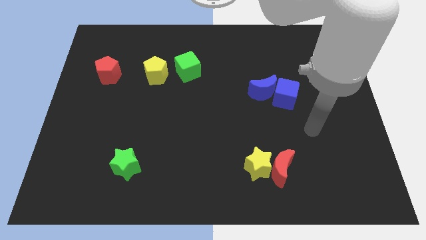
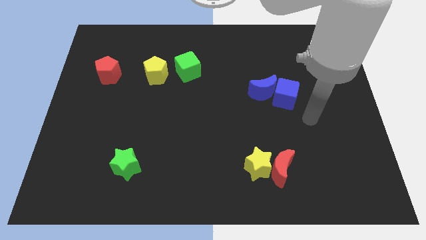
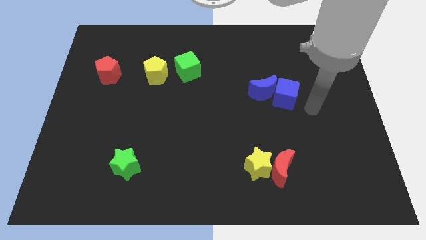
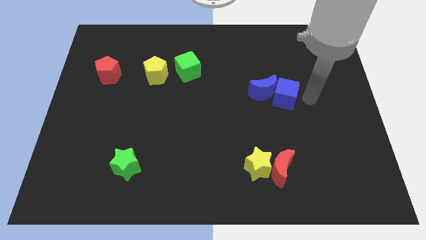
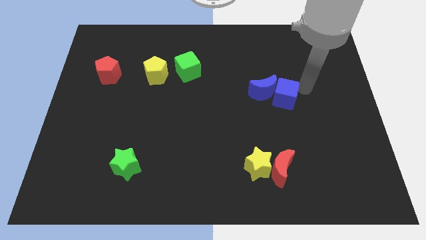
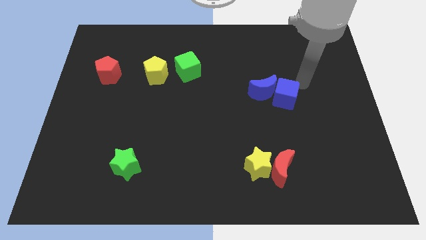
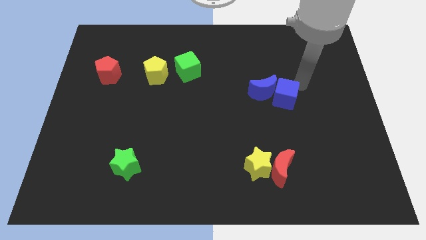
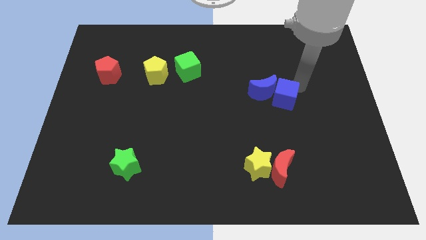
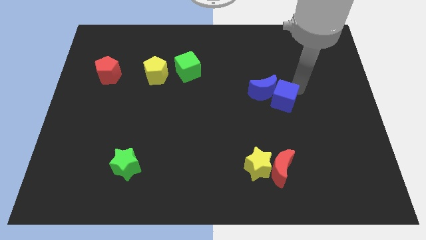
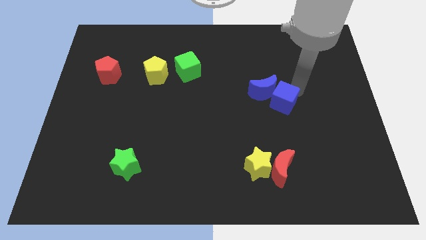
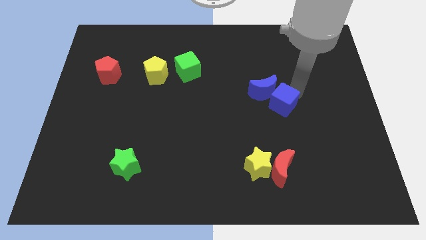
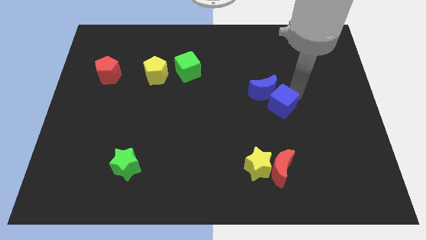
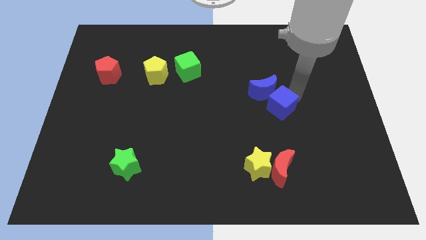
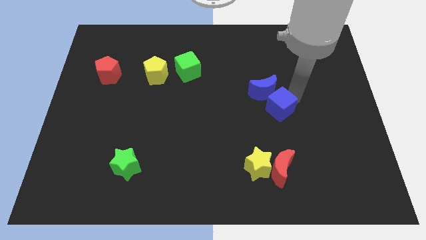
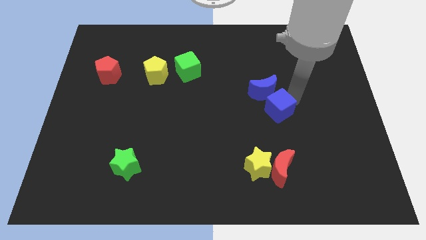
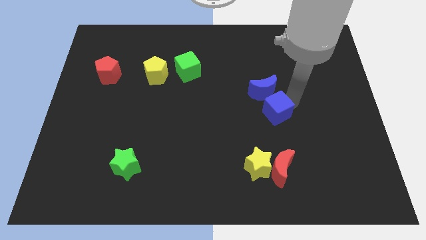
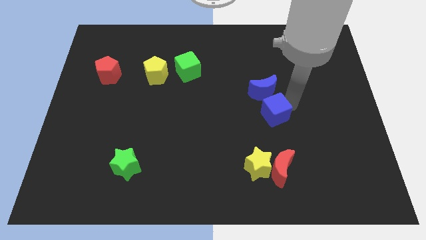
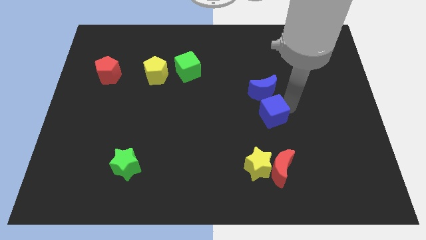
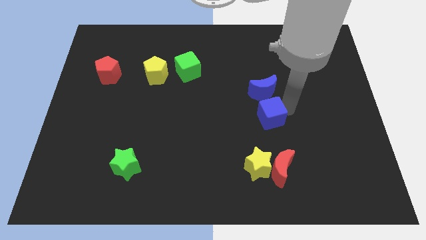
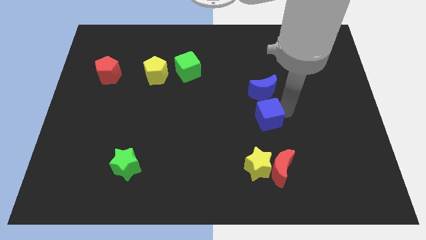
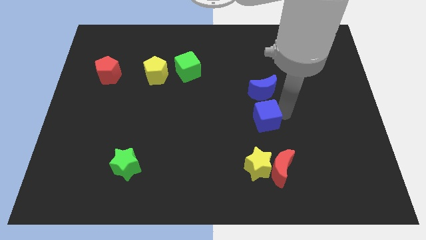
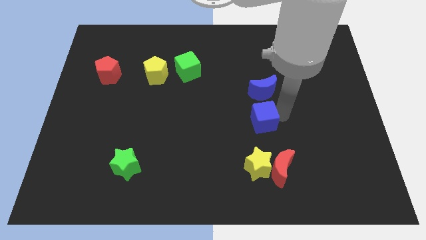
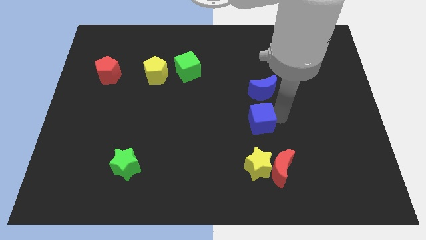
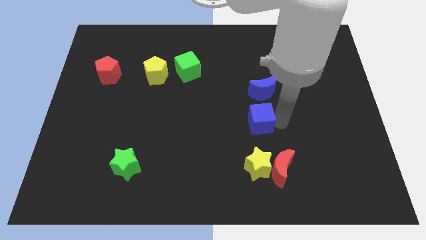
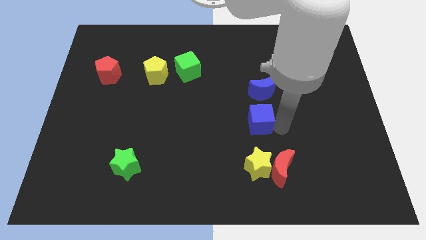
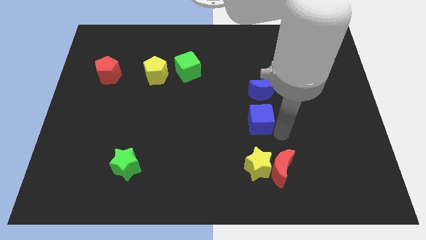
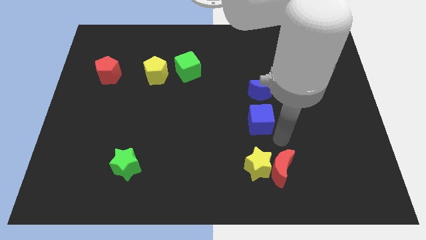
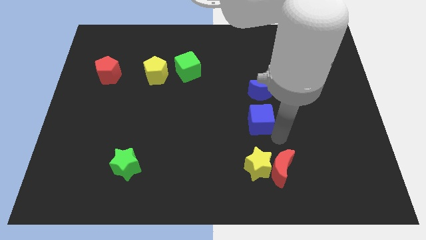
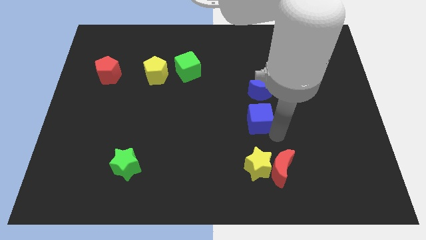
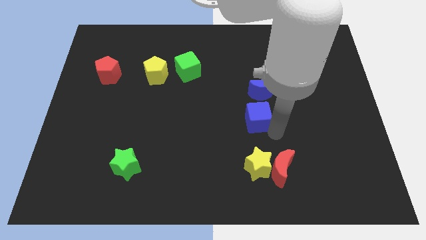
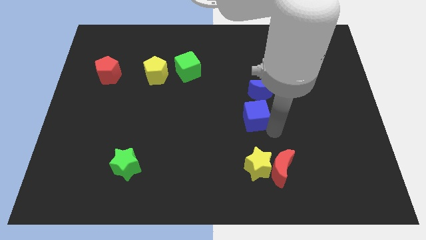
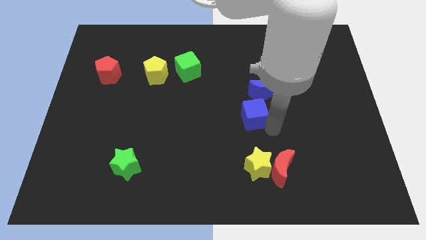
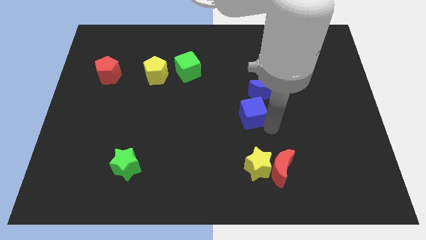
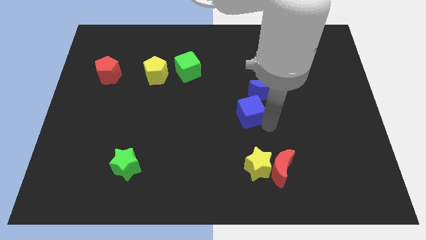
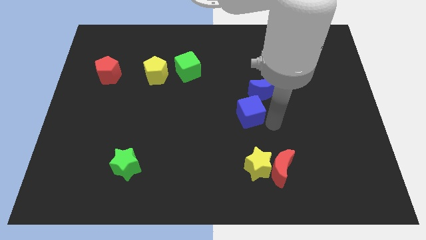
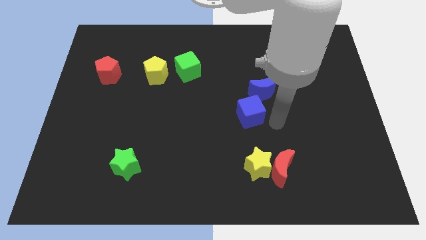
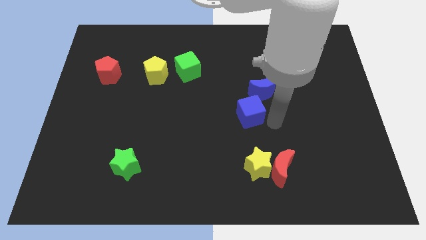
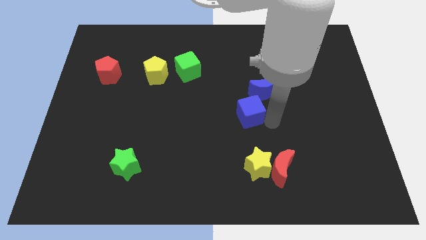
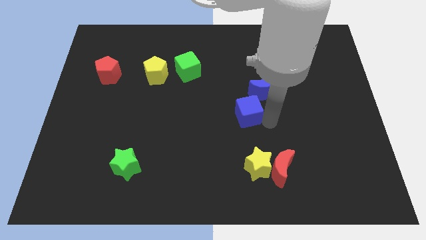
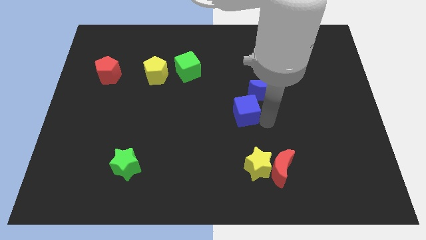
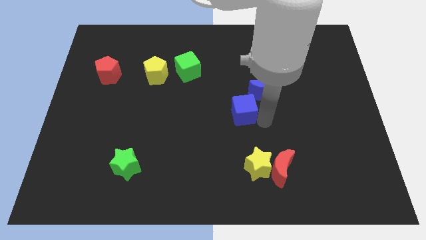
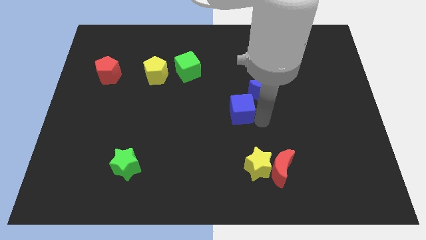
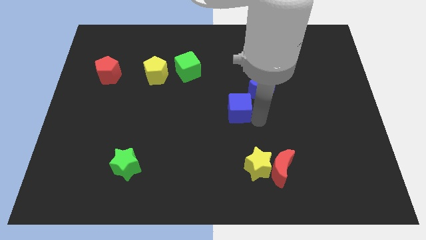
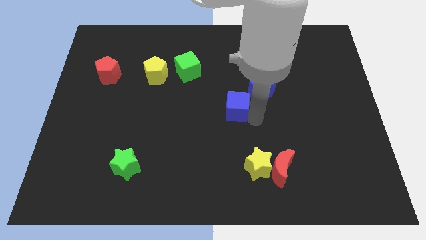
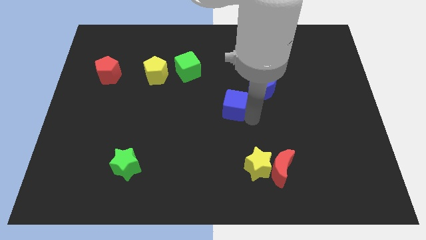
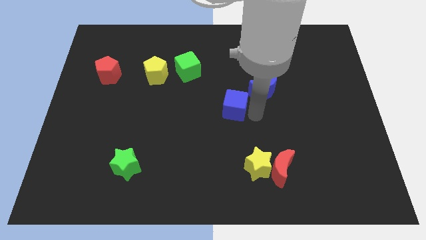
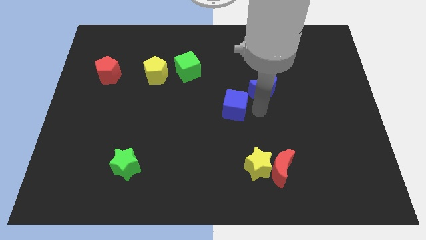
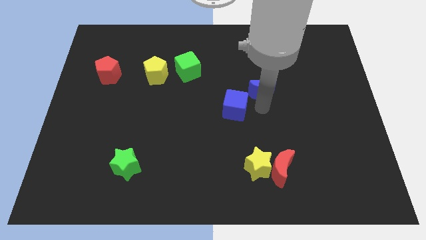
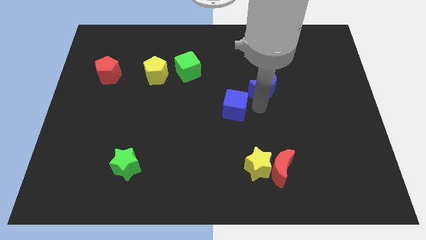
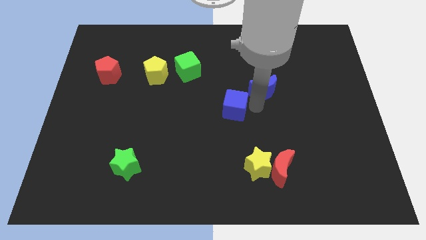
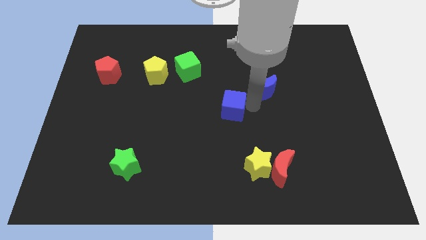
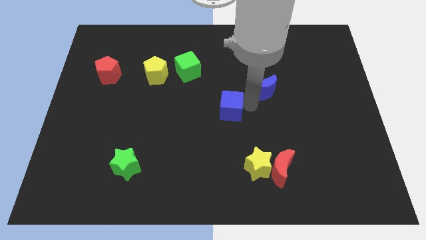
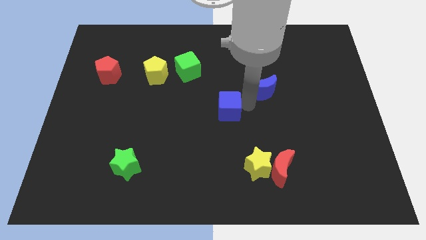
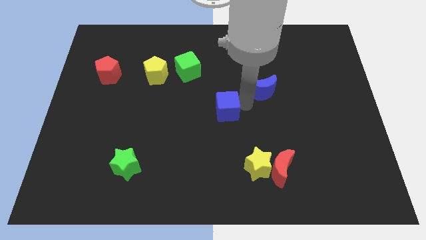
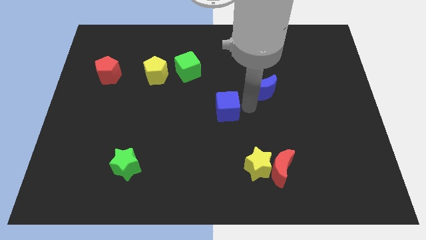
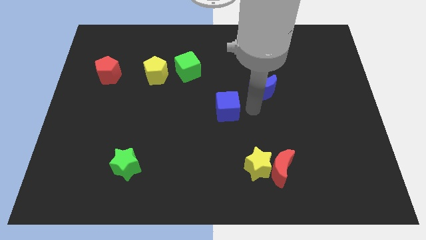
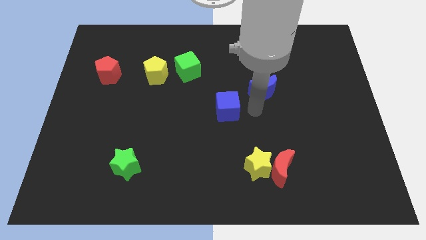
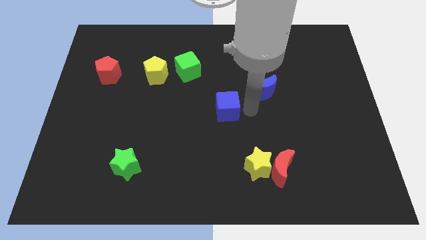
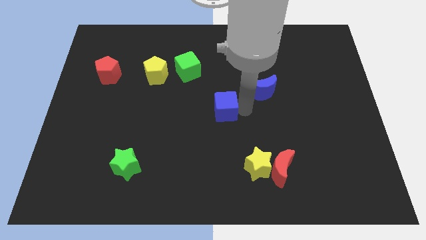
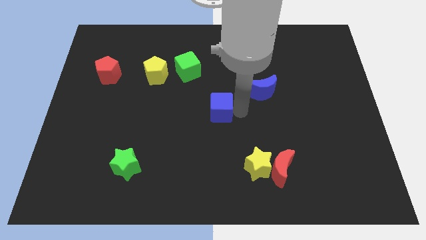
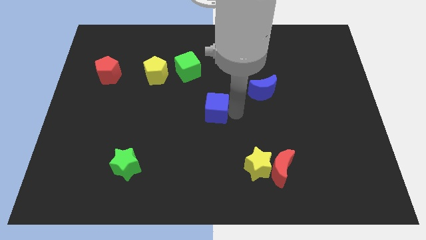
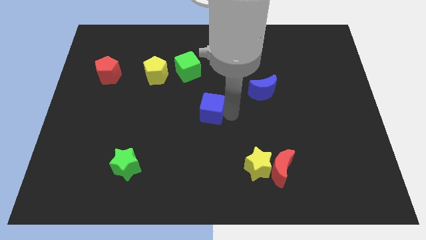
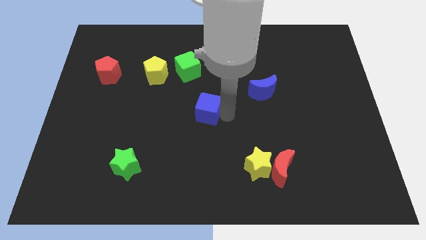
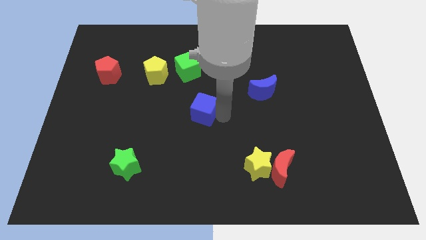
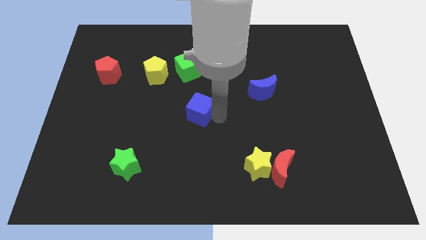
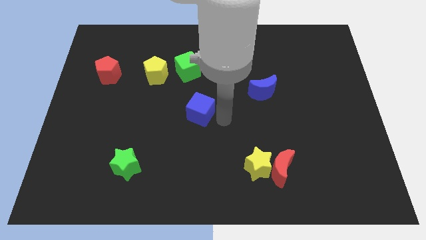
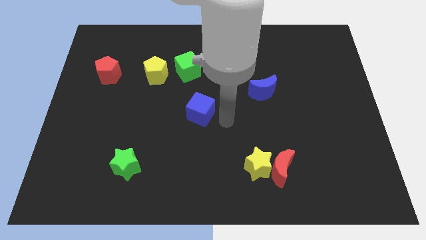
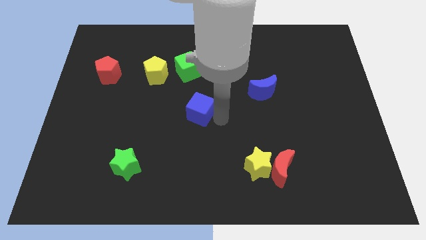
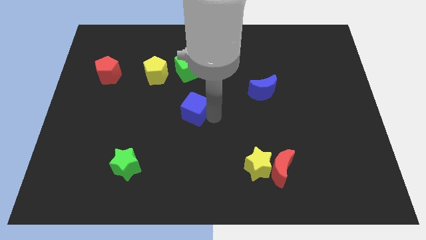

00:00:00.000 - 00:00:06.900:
push the blue cube to the left

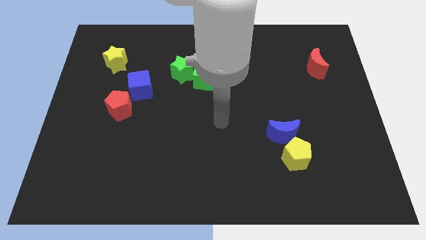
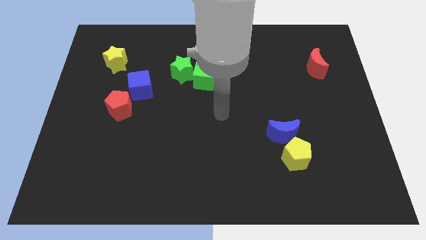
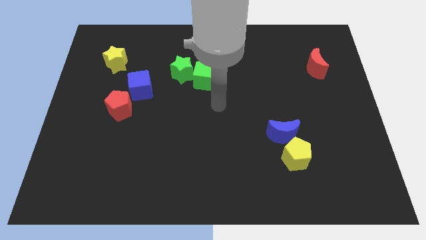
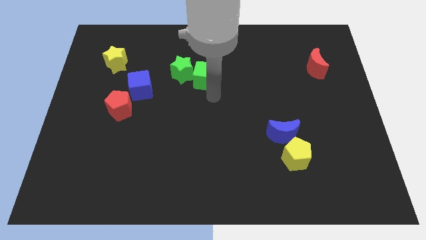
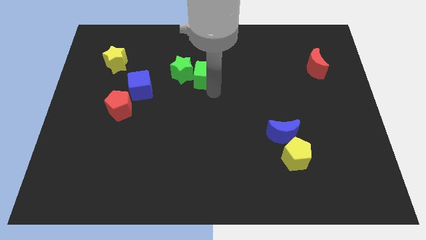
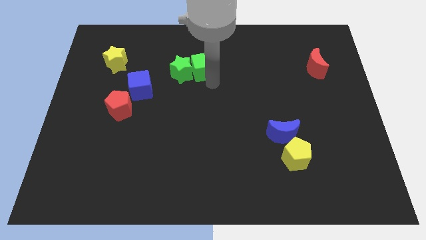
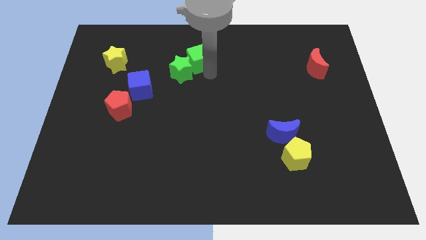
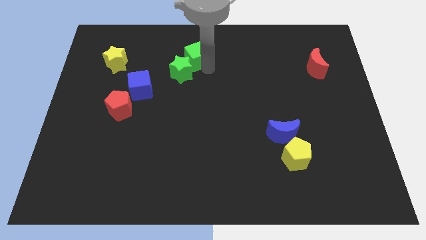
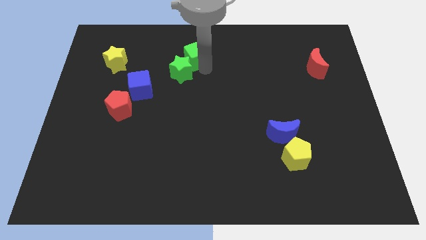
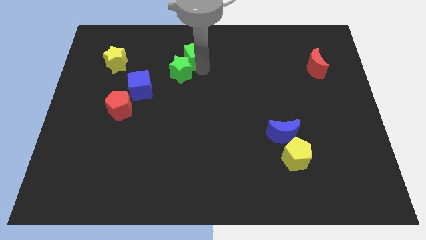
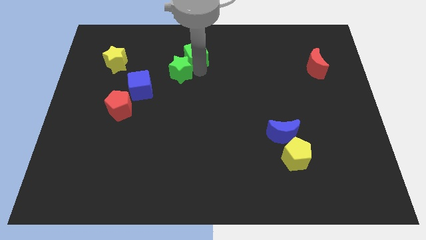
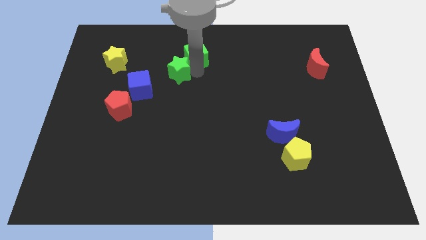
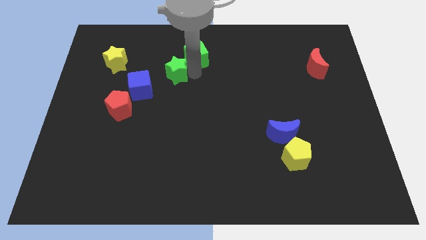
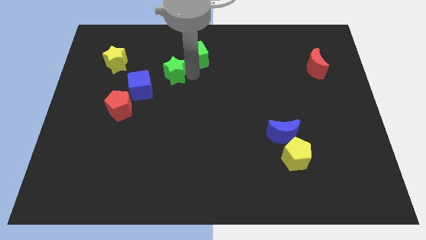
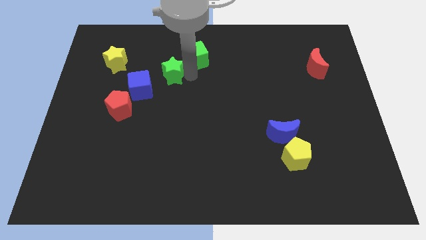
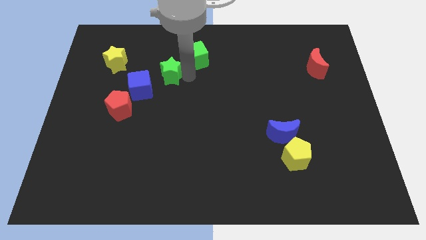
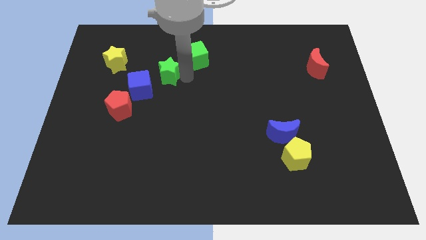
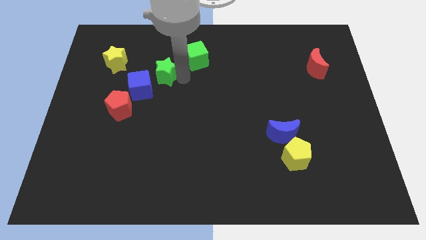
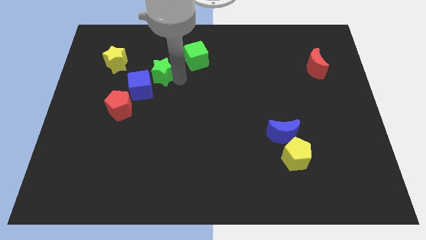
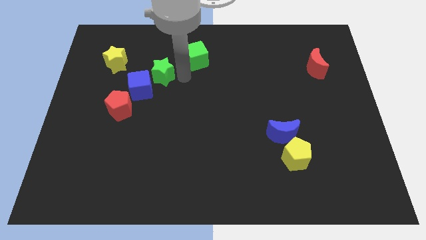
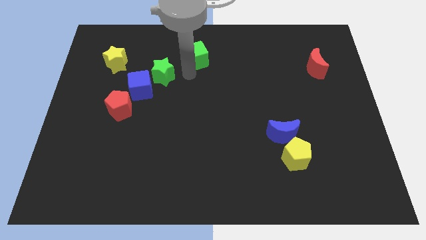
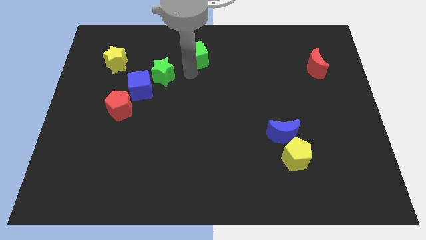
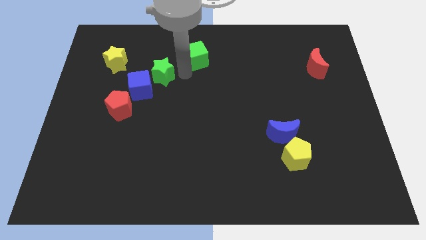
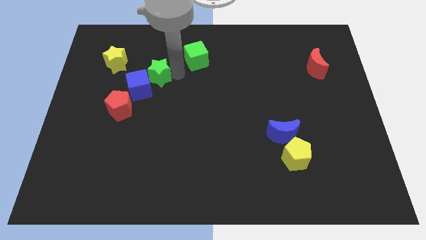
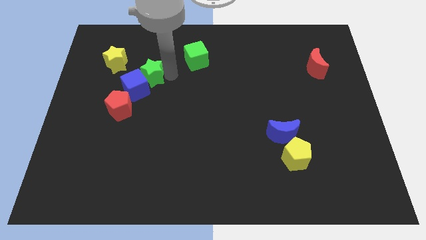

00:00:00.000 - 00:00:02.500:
slightly slide the green star to the left
